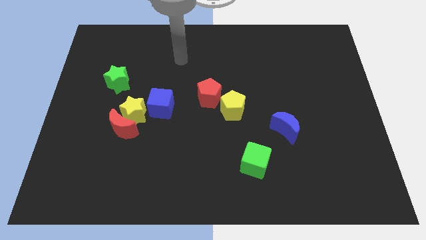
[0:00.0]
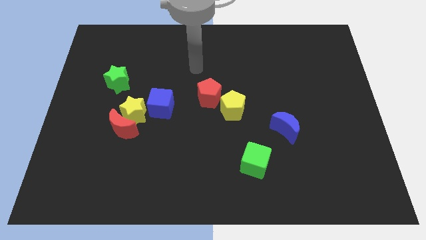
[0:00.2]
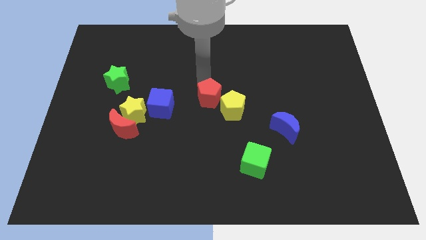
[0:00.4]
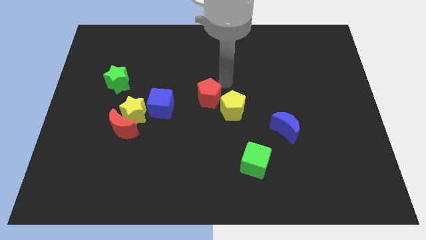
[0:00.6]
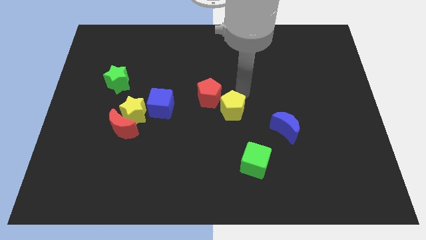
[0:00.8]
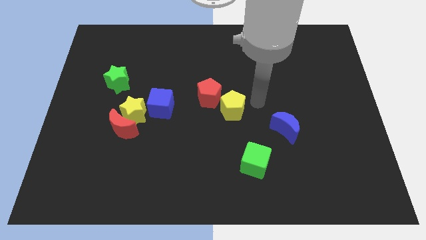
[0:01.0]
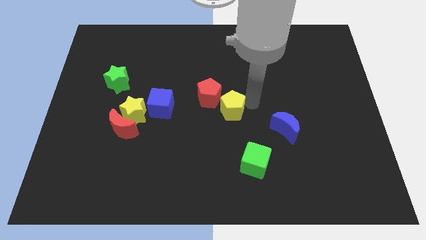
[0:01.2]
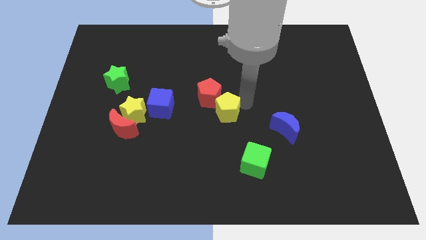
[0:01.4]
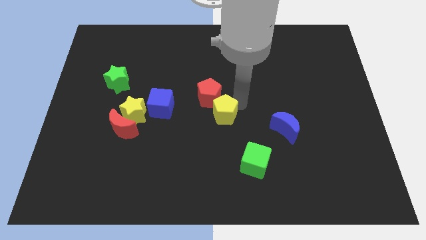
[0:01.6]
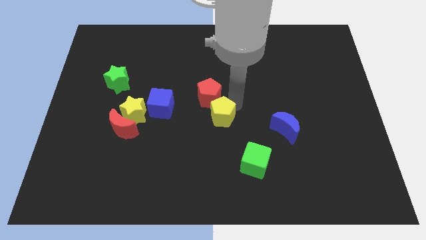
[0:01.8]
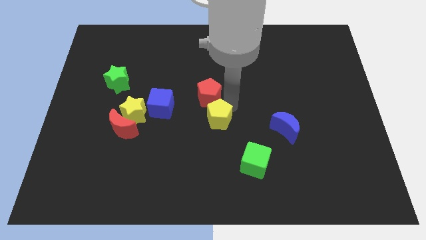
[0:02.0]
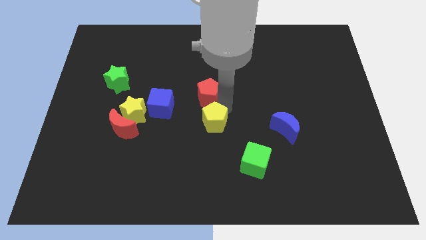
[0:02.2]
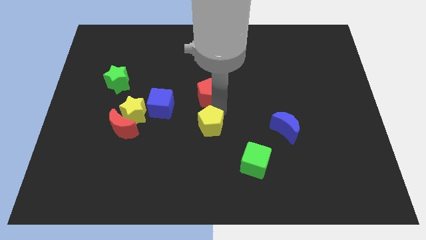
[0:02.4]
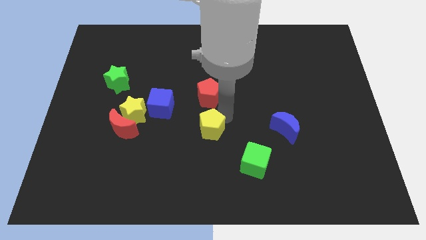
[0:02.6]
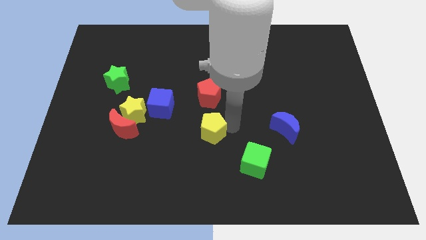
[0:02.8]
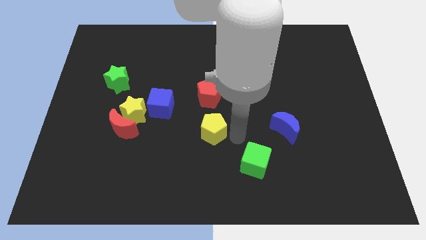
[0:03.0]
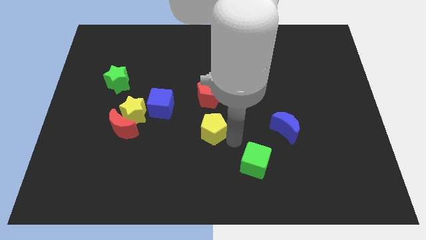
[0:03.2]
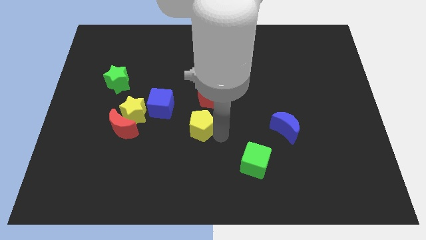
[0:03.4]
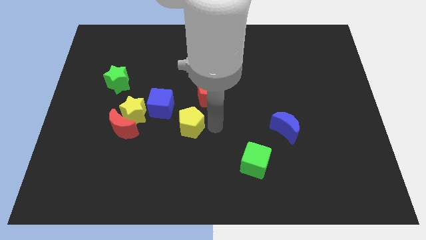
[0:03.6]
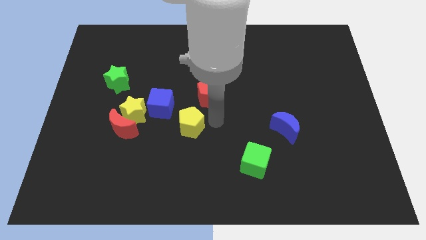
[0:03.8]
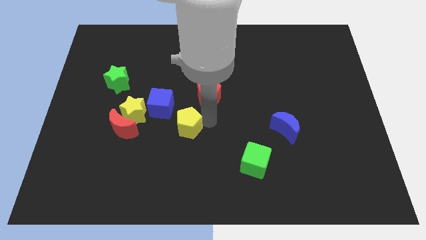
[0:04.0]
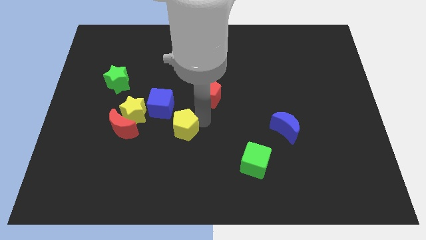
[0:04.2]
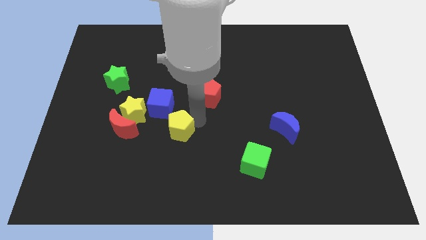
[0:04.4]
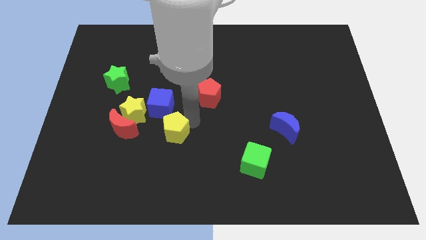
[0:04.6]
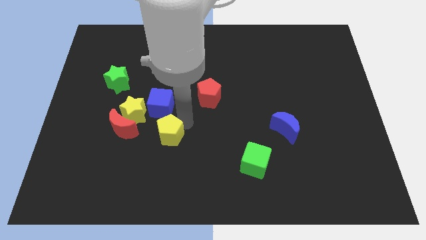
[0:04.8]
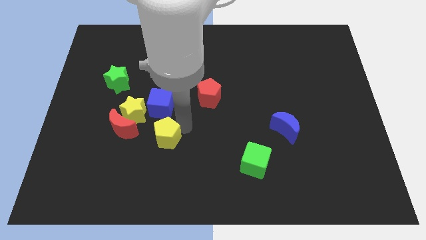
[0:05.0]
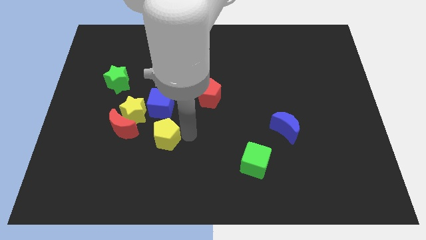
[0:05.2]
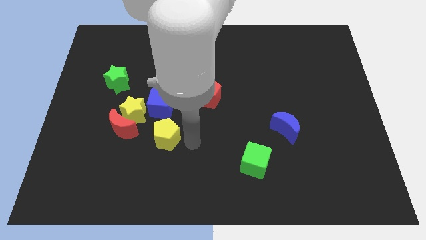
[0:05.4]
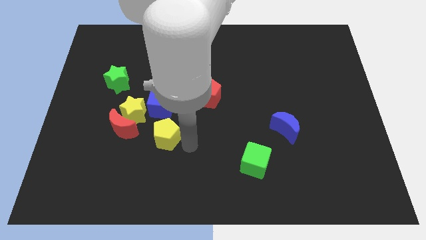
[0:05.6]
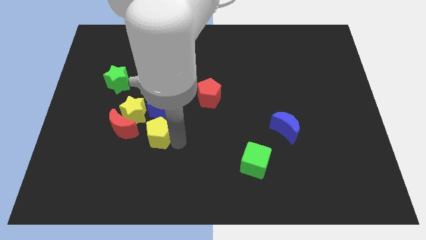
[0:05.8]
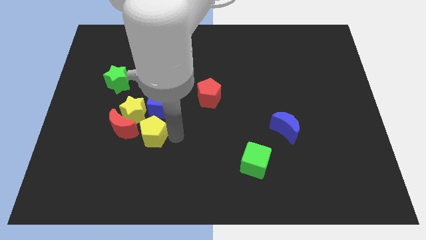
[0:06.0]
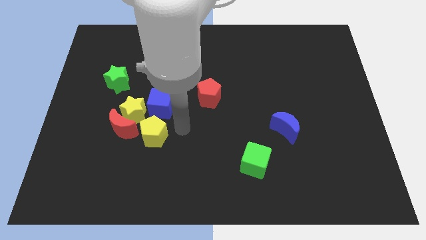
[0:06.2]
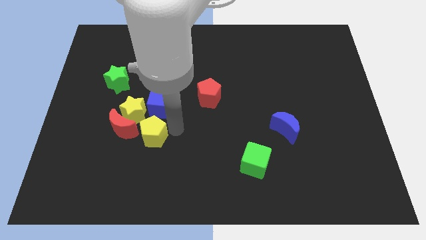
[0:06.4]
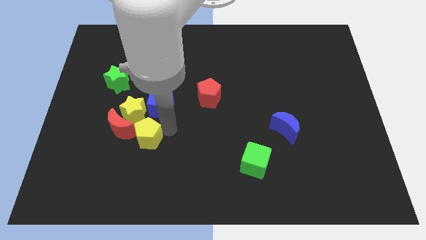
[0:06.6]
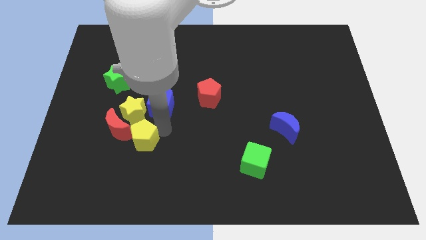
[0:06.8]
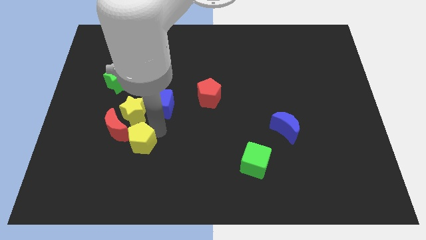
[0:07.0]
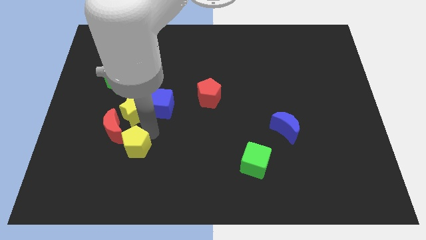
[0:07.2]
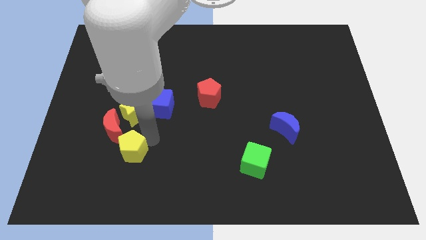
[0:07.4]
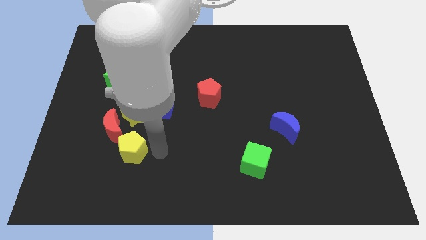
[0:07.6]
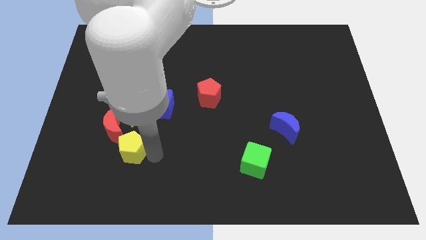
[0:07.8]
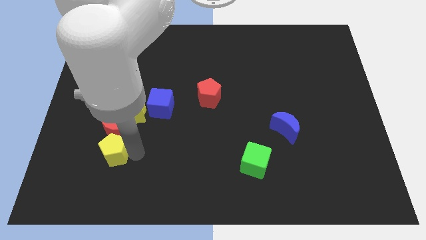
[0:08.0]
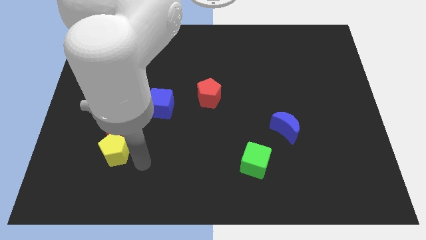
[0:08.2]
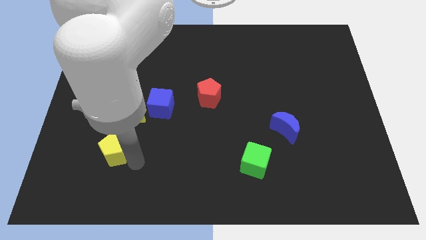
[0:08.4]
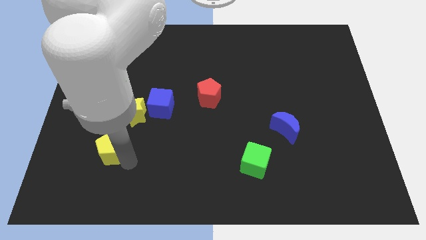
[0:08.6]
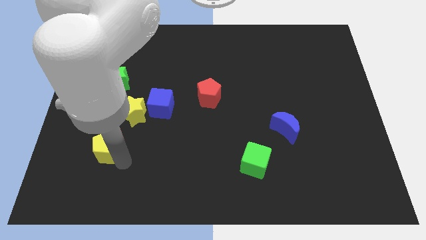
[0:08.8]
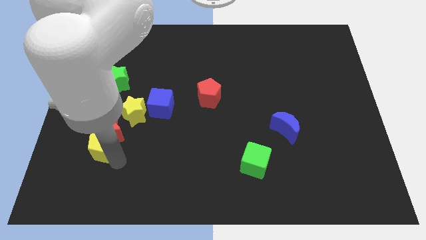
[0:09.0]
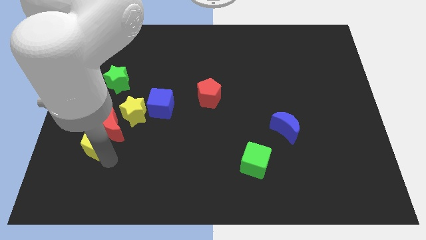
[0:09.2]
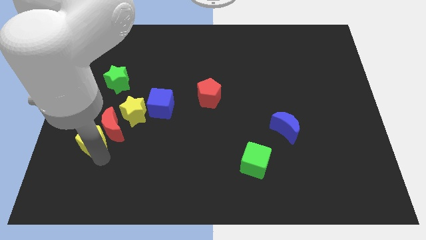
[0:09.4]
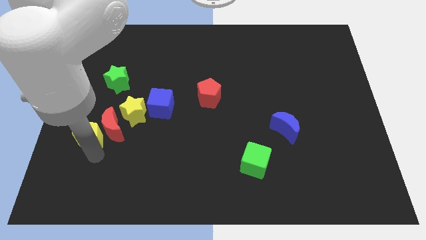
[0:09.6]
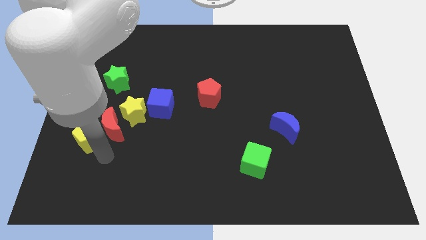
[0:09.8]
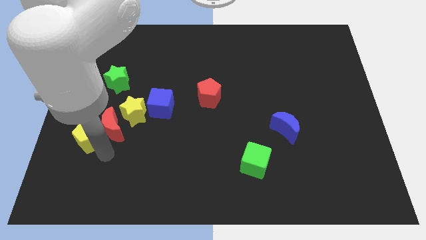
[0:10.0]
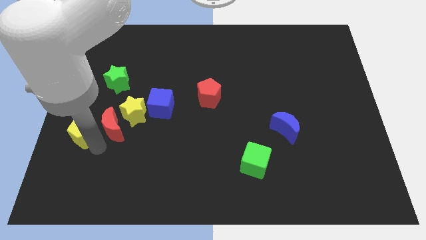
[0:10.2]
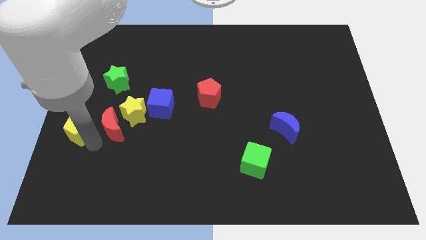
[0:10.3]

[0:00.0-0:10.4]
slide the yellow pentagon to the center left

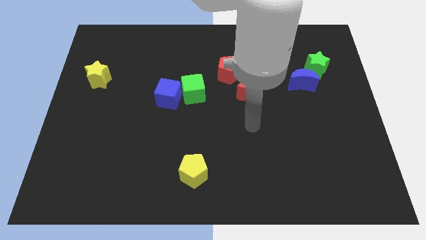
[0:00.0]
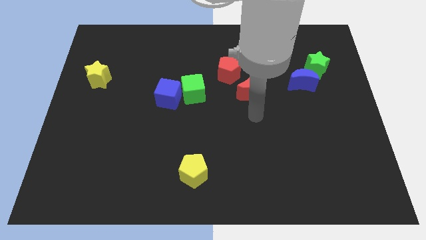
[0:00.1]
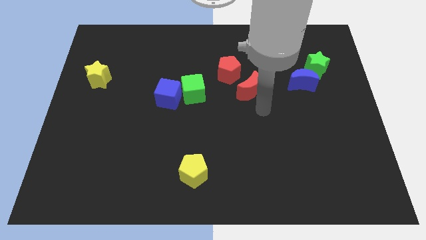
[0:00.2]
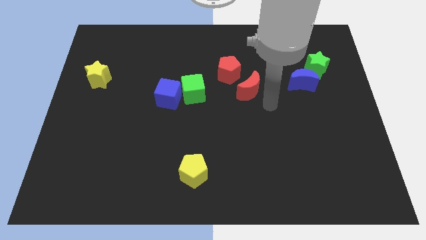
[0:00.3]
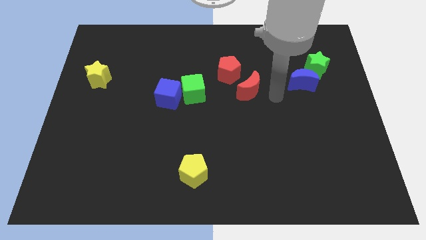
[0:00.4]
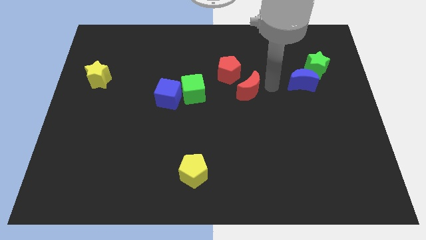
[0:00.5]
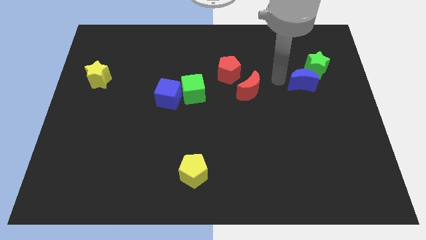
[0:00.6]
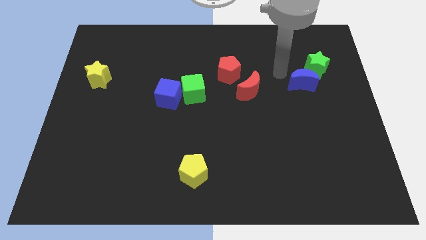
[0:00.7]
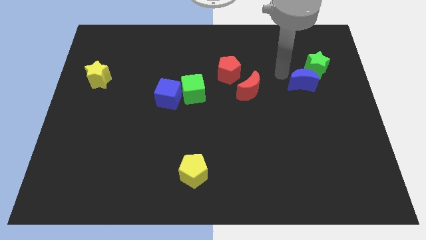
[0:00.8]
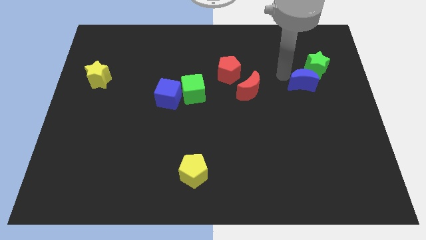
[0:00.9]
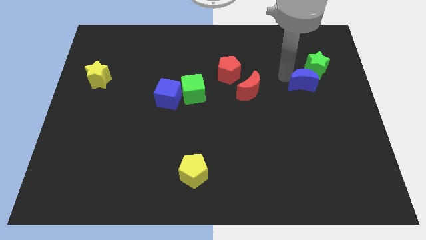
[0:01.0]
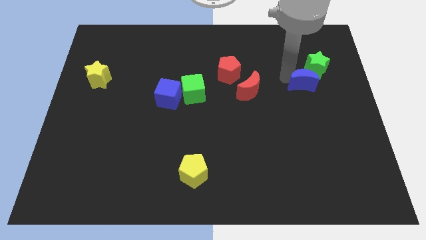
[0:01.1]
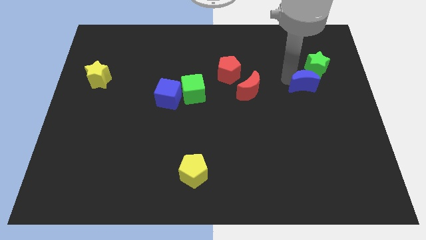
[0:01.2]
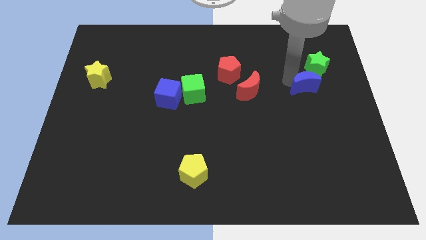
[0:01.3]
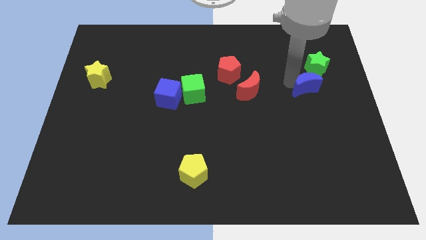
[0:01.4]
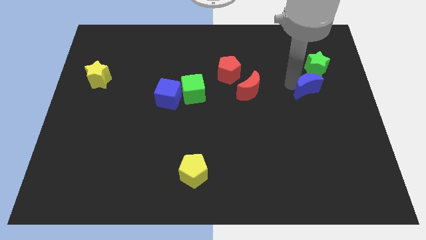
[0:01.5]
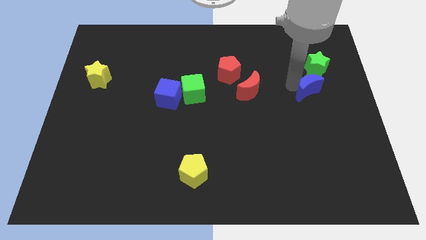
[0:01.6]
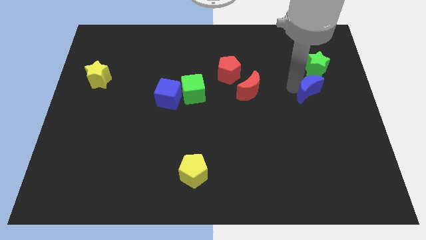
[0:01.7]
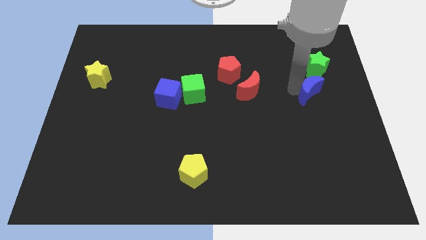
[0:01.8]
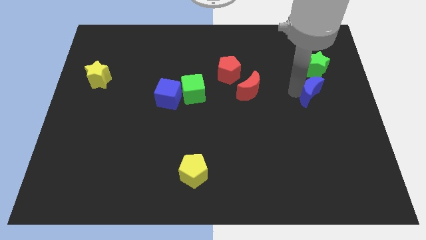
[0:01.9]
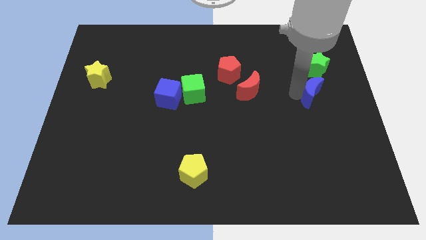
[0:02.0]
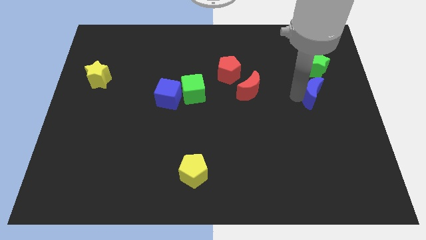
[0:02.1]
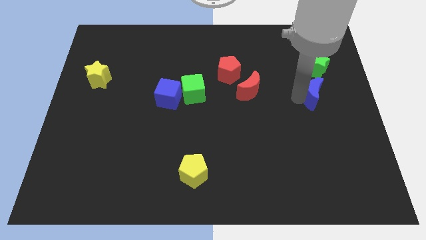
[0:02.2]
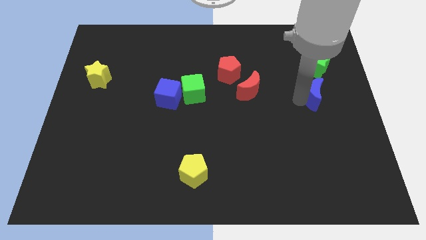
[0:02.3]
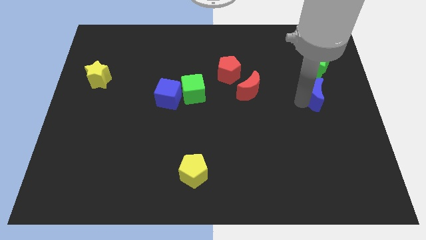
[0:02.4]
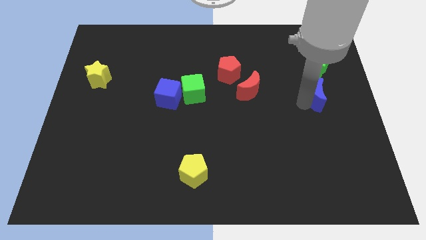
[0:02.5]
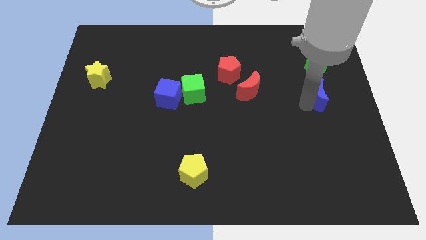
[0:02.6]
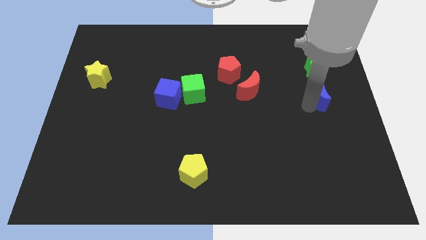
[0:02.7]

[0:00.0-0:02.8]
push the blue moon to the center right
